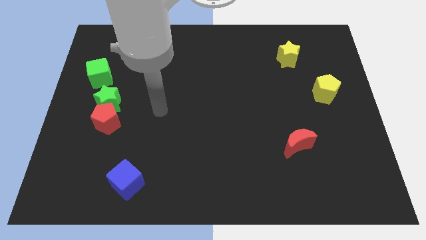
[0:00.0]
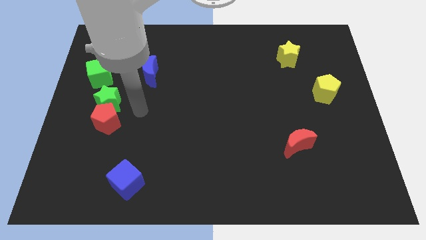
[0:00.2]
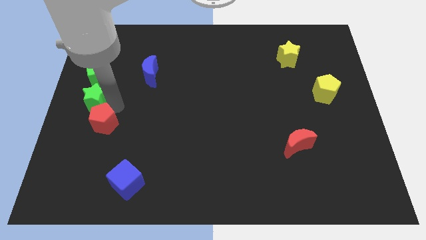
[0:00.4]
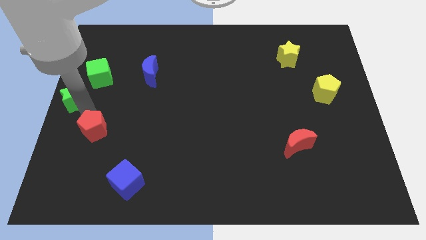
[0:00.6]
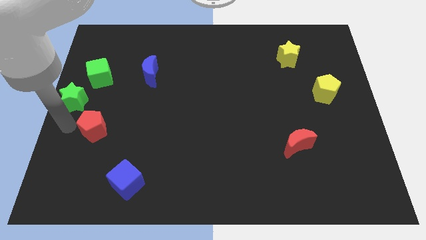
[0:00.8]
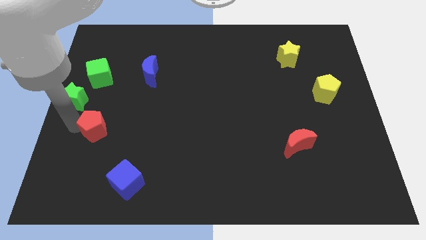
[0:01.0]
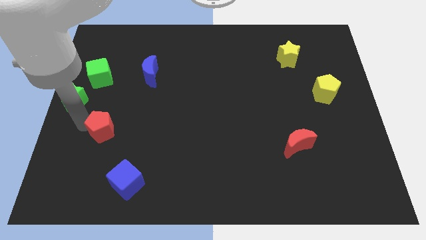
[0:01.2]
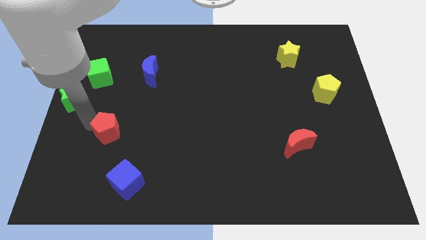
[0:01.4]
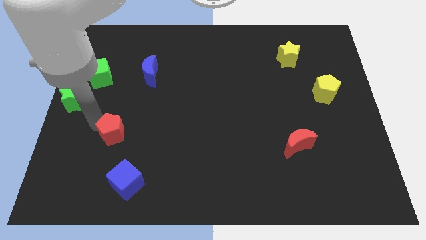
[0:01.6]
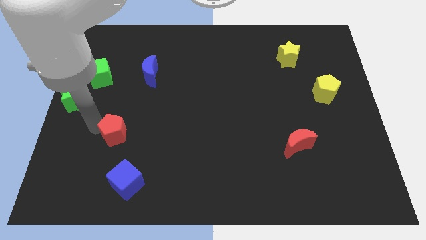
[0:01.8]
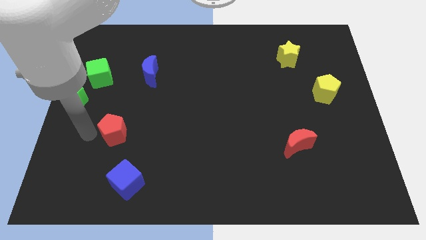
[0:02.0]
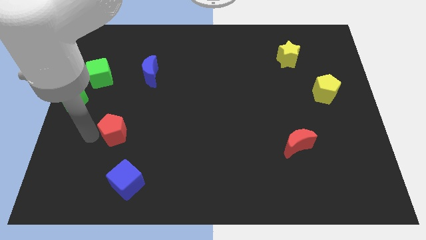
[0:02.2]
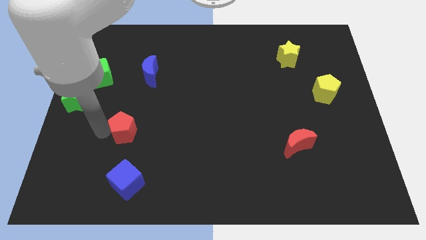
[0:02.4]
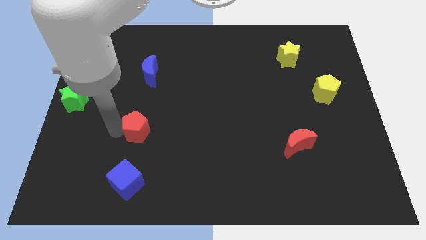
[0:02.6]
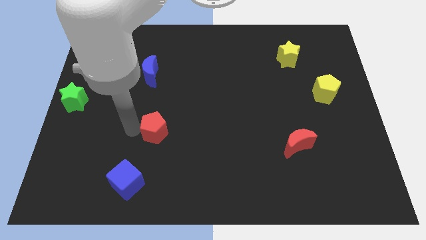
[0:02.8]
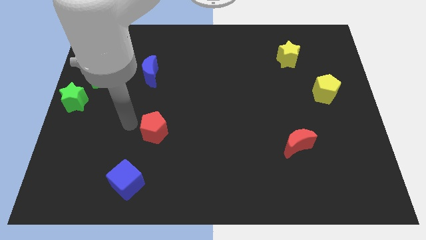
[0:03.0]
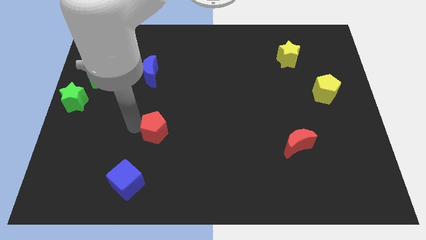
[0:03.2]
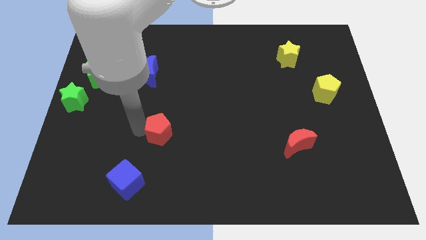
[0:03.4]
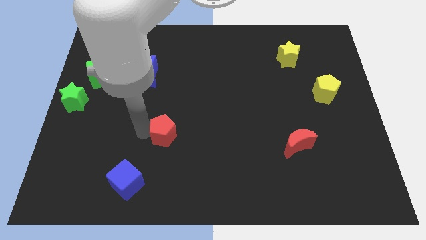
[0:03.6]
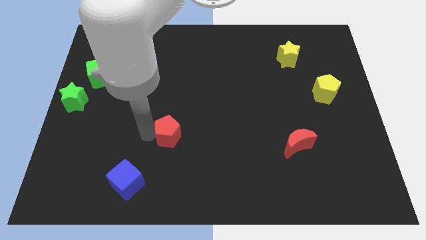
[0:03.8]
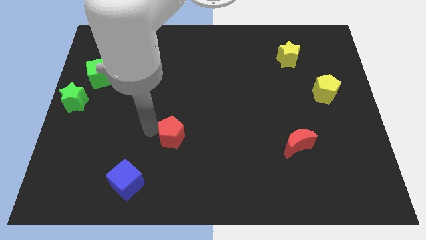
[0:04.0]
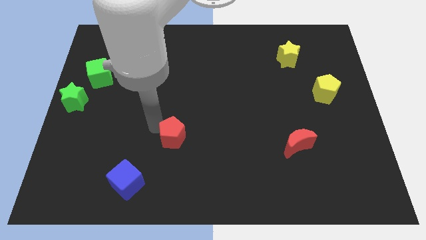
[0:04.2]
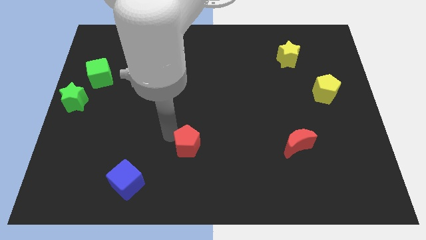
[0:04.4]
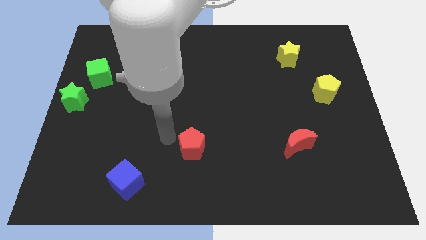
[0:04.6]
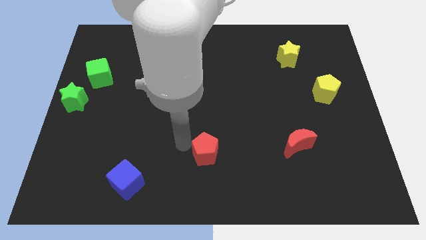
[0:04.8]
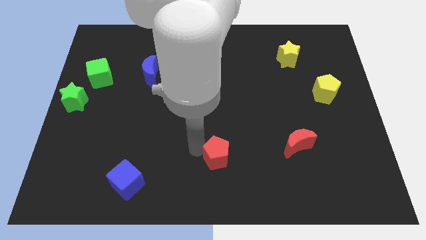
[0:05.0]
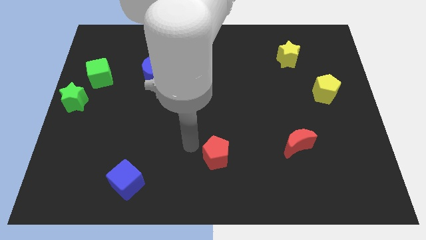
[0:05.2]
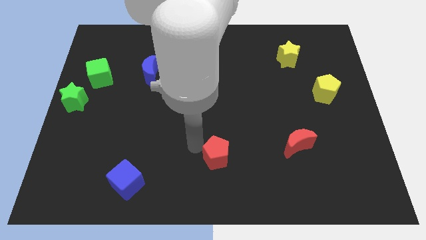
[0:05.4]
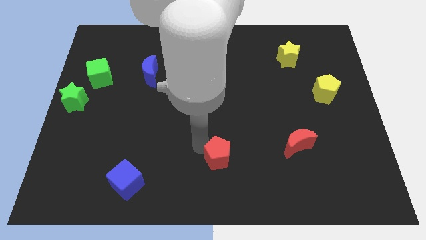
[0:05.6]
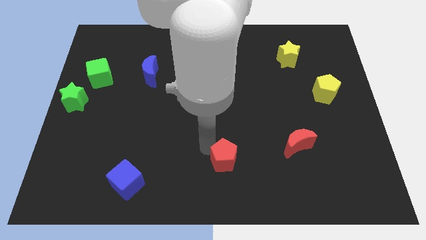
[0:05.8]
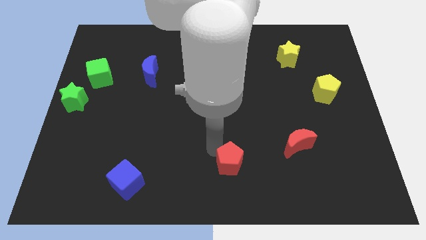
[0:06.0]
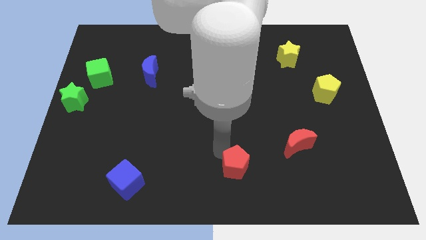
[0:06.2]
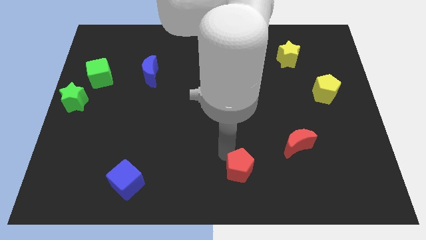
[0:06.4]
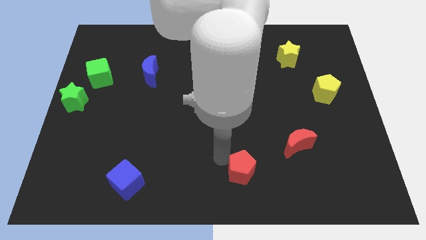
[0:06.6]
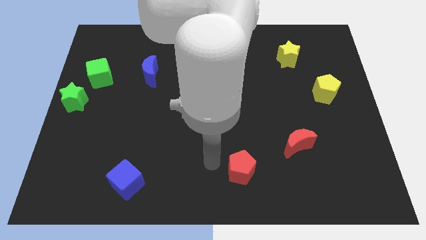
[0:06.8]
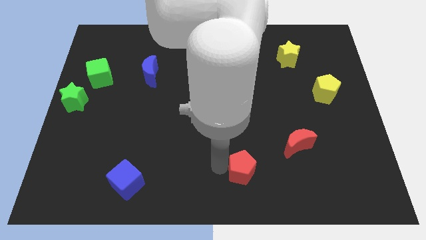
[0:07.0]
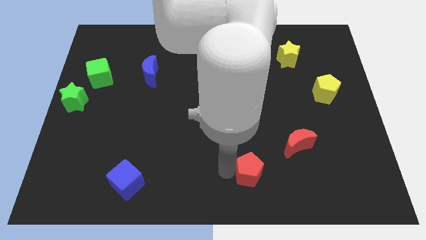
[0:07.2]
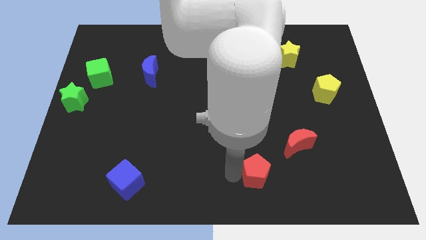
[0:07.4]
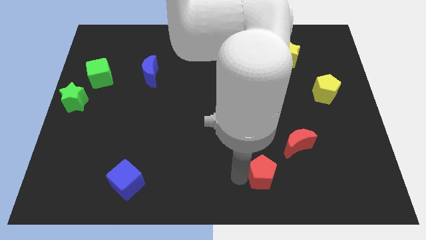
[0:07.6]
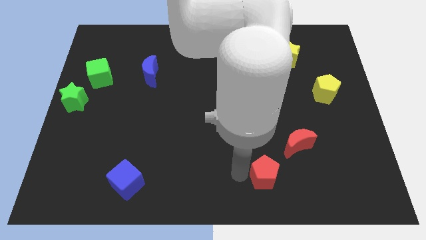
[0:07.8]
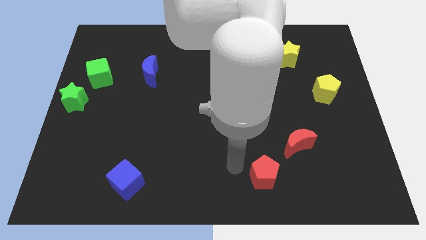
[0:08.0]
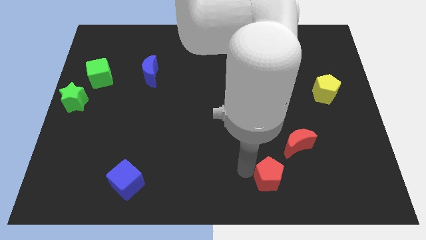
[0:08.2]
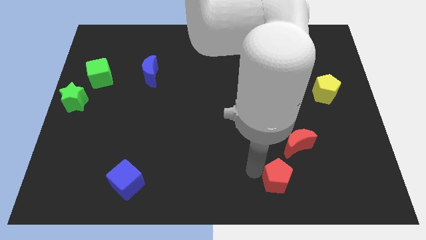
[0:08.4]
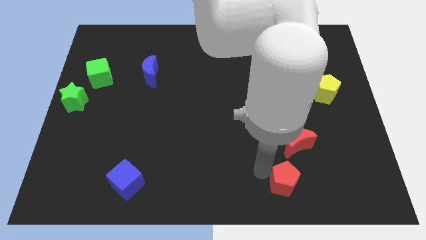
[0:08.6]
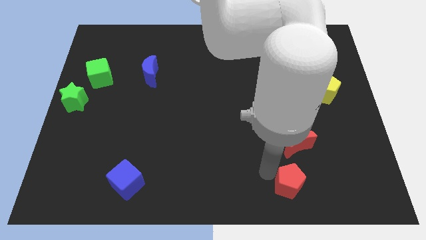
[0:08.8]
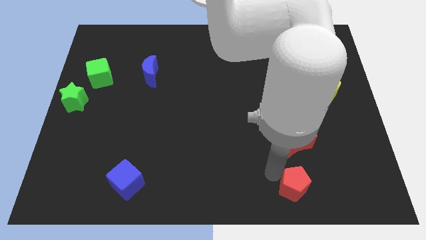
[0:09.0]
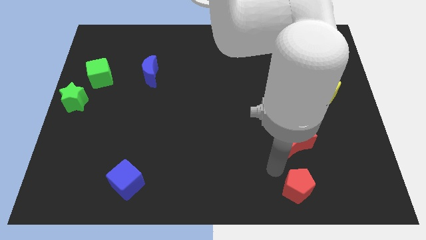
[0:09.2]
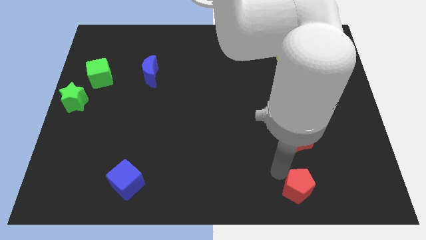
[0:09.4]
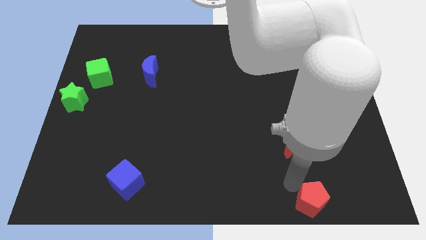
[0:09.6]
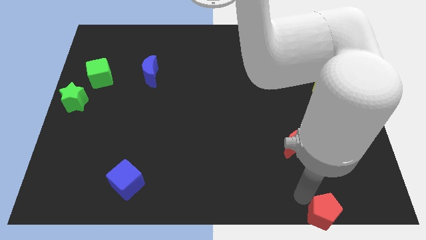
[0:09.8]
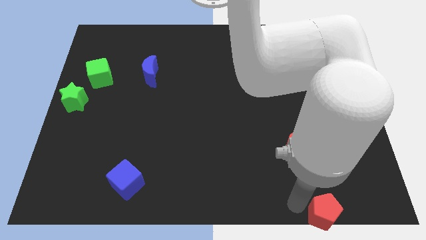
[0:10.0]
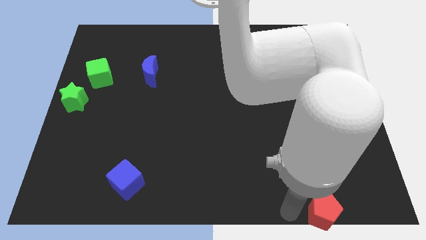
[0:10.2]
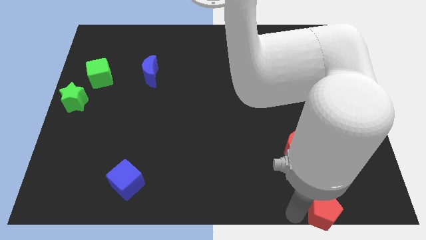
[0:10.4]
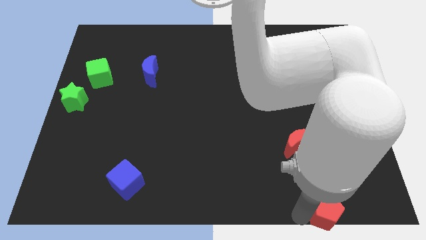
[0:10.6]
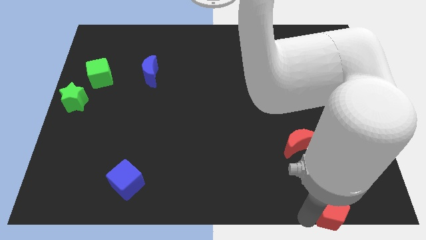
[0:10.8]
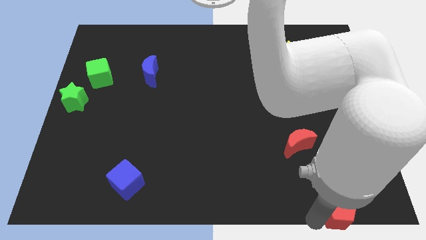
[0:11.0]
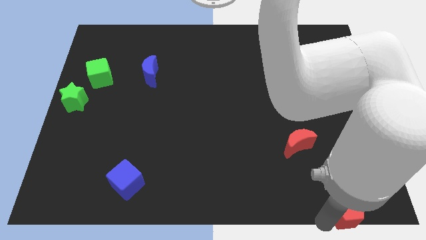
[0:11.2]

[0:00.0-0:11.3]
push the red pentagon to the bottom right

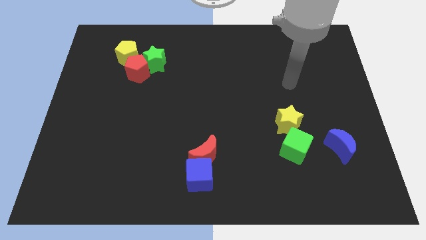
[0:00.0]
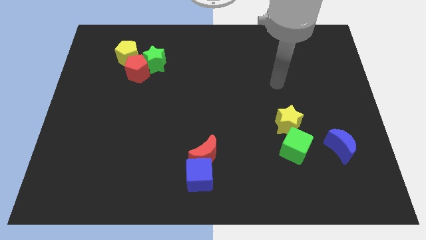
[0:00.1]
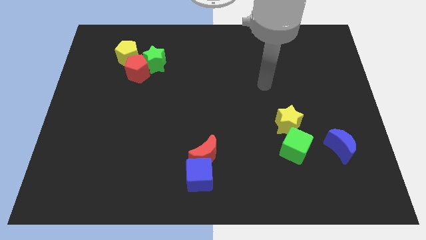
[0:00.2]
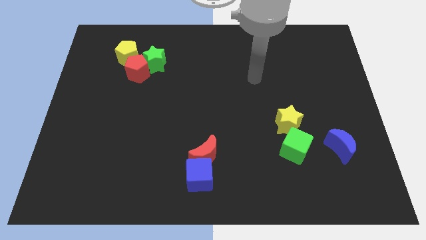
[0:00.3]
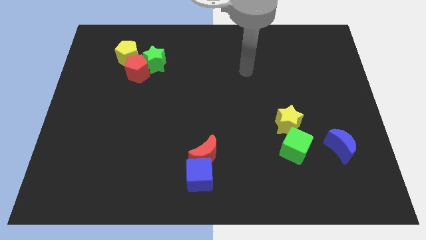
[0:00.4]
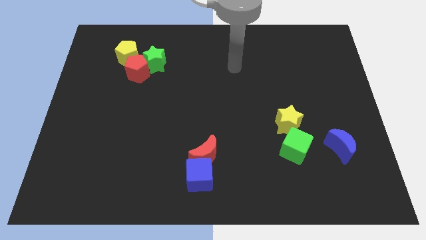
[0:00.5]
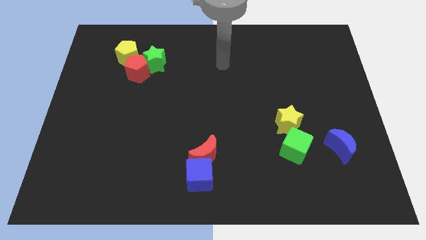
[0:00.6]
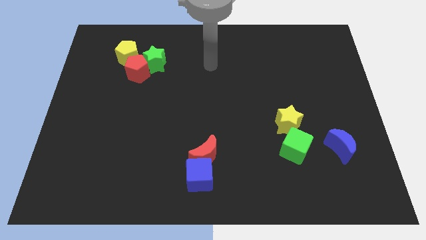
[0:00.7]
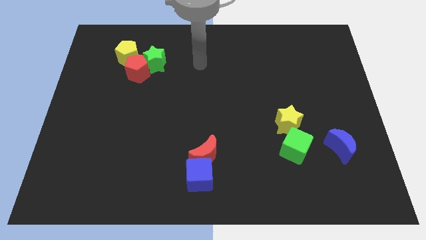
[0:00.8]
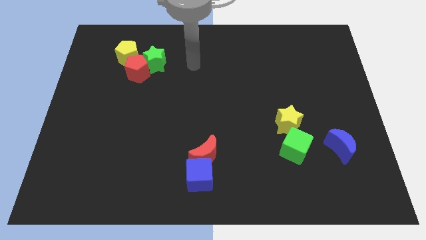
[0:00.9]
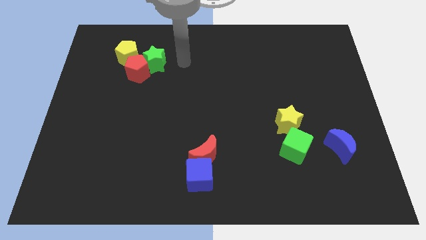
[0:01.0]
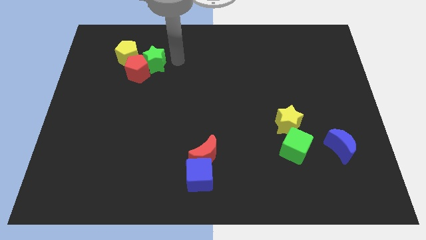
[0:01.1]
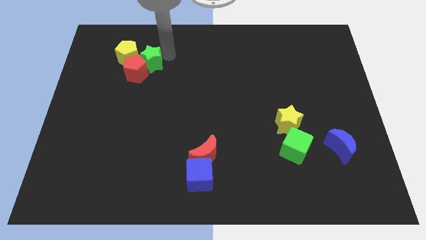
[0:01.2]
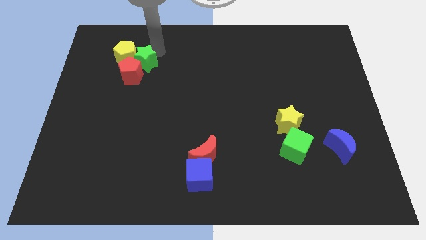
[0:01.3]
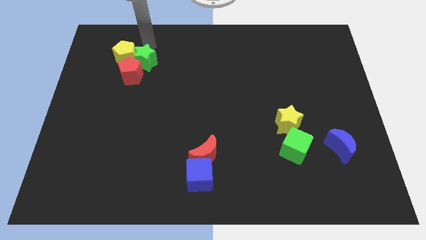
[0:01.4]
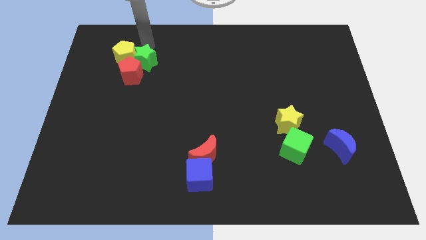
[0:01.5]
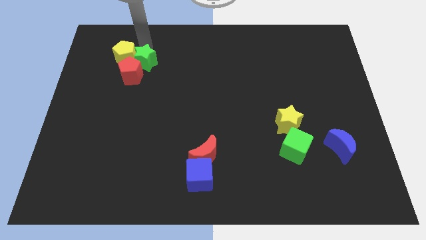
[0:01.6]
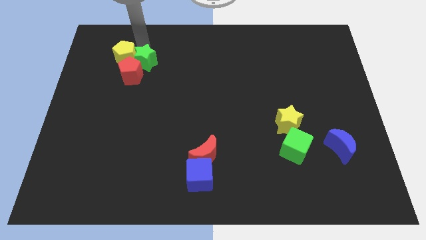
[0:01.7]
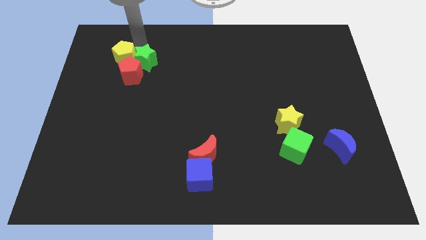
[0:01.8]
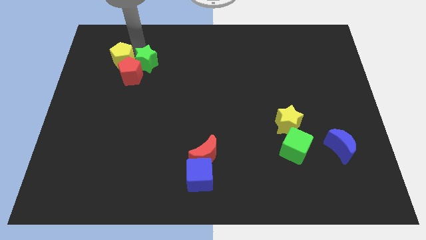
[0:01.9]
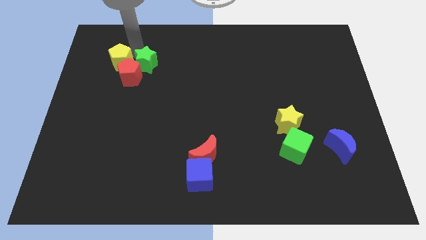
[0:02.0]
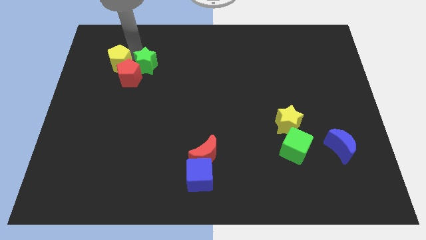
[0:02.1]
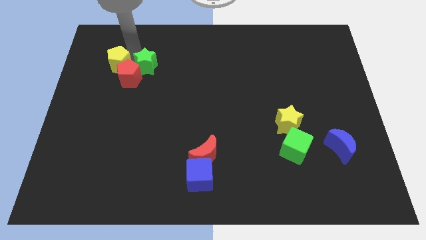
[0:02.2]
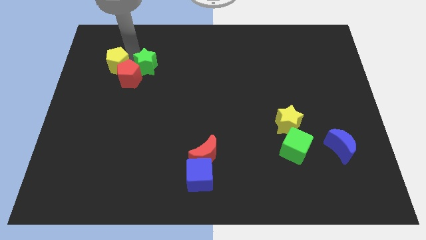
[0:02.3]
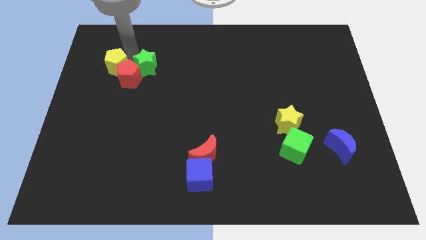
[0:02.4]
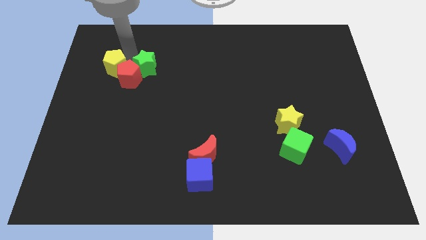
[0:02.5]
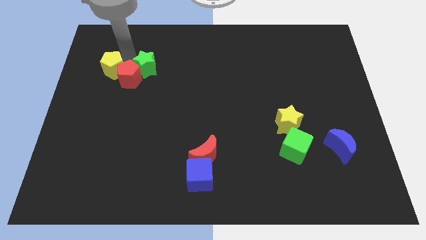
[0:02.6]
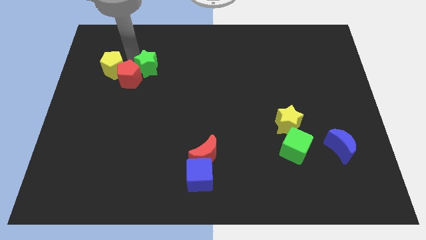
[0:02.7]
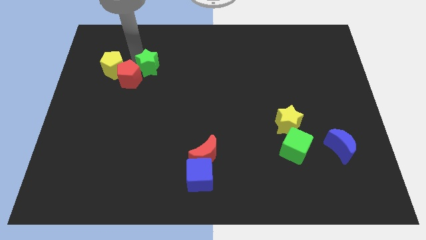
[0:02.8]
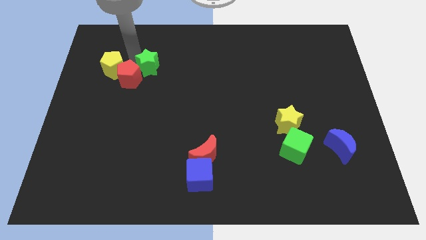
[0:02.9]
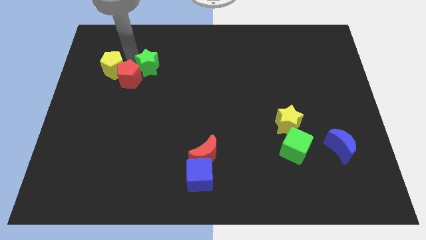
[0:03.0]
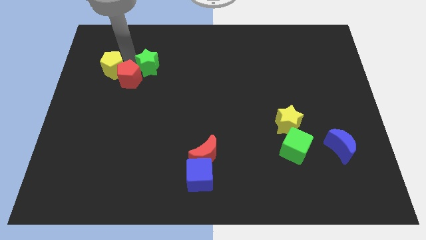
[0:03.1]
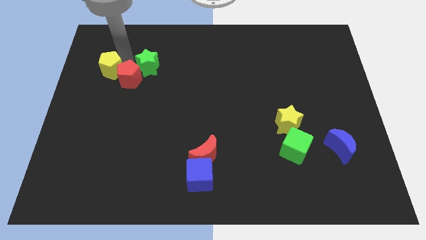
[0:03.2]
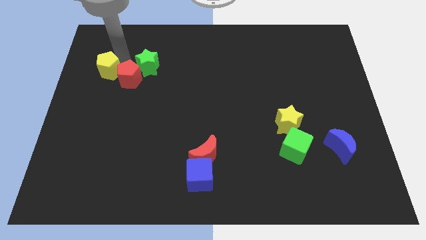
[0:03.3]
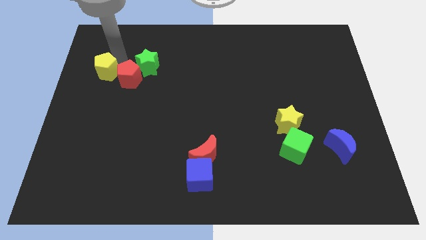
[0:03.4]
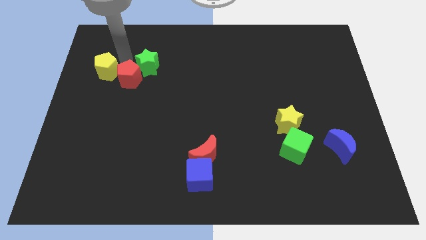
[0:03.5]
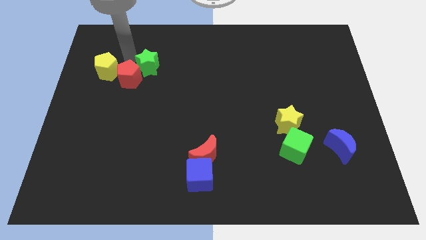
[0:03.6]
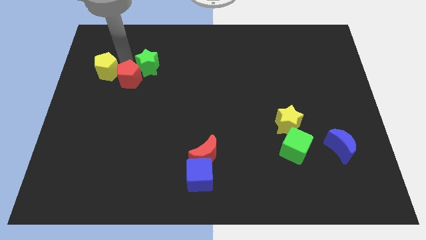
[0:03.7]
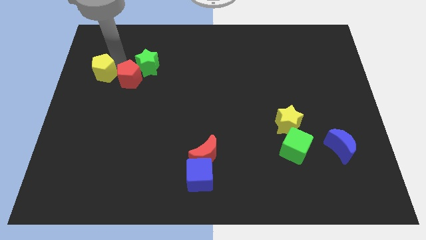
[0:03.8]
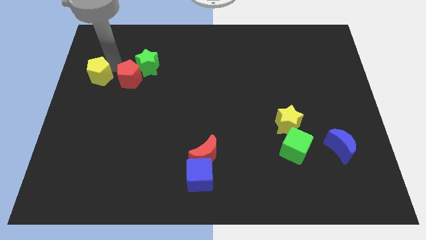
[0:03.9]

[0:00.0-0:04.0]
put the yellow pentagon to the left side of the board
